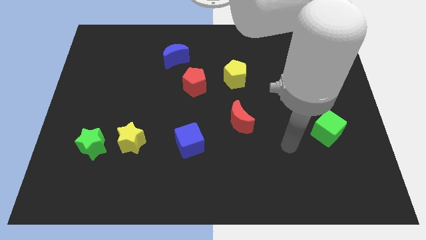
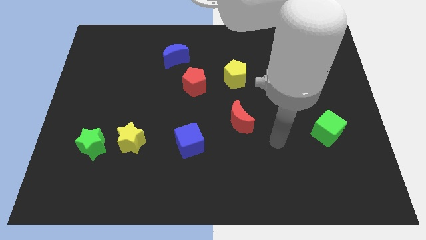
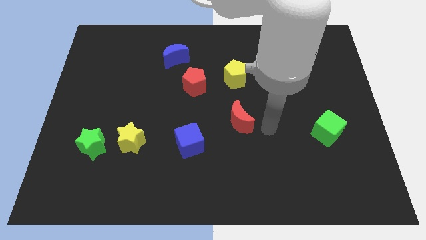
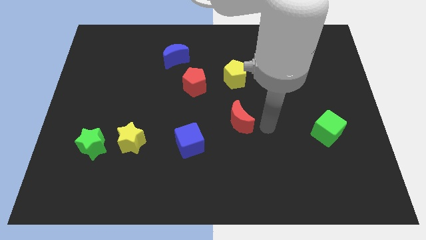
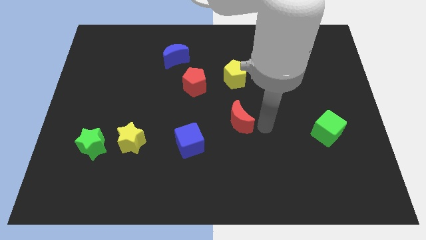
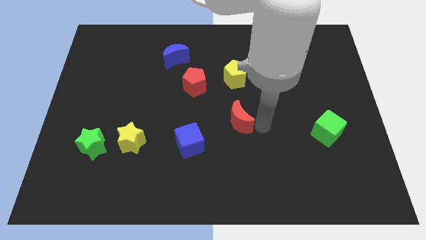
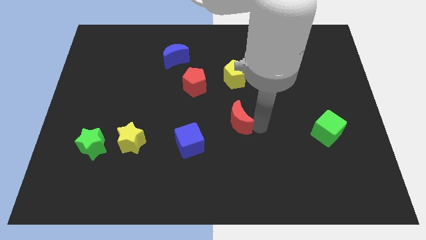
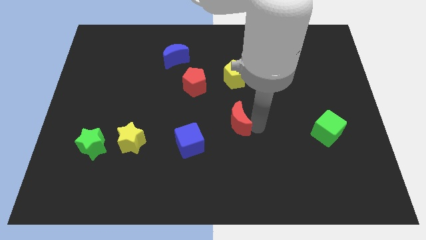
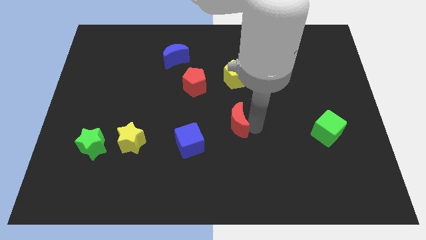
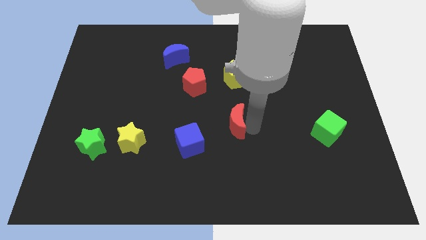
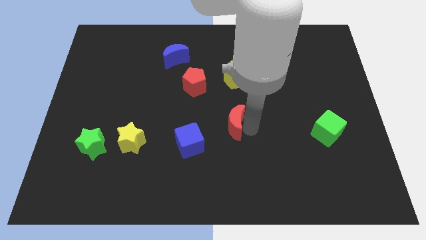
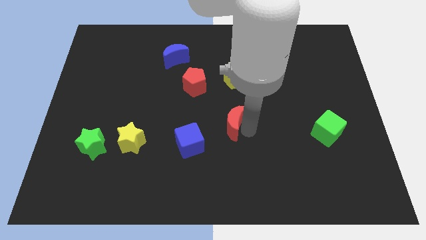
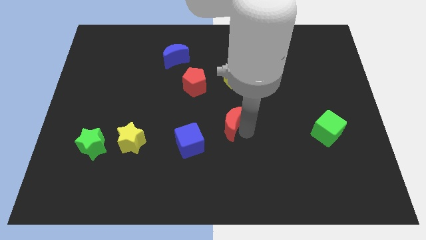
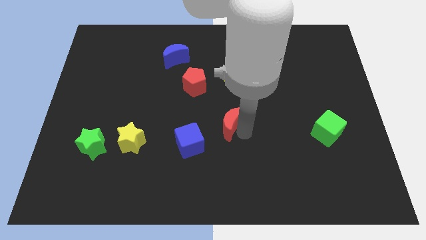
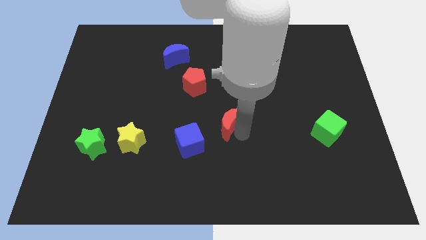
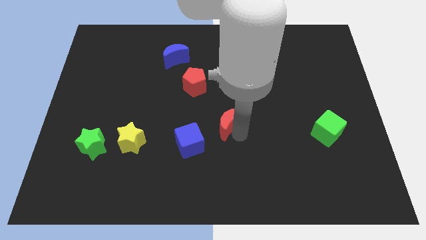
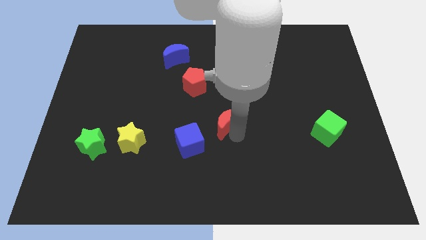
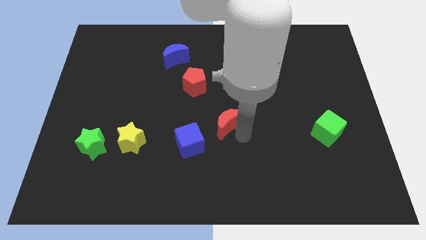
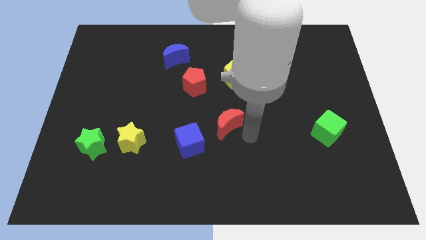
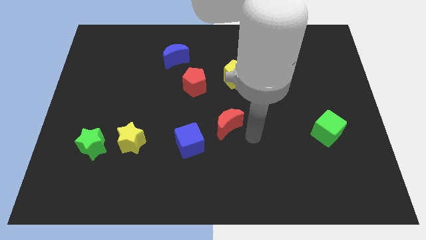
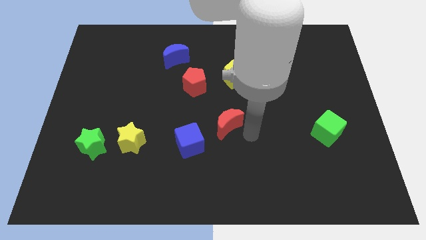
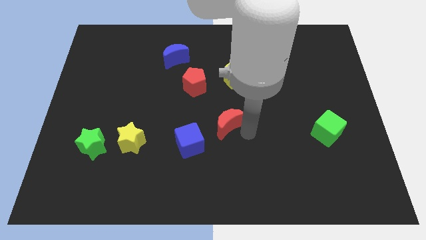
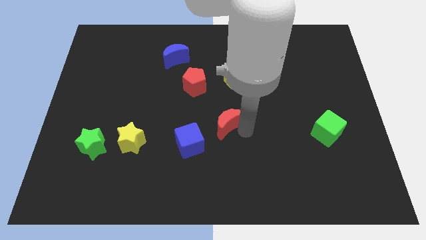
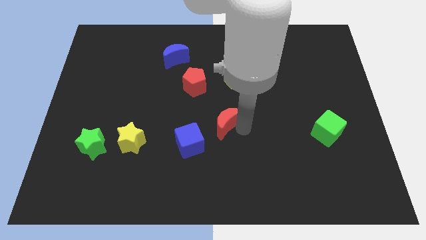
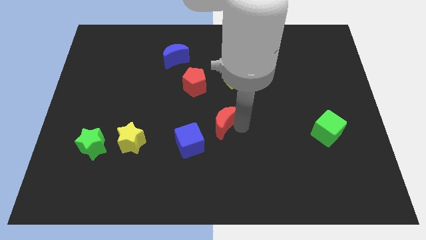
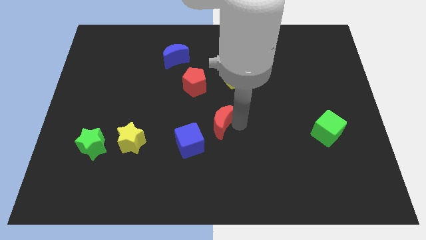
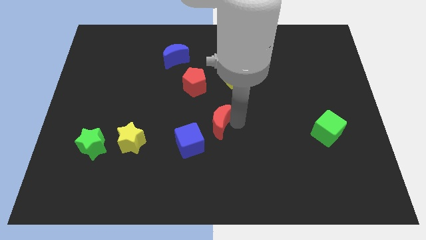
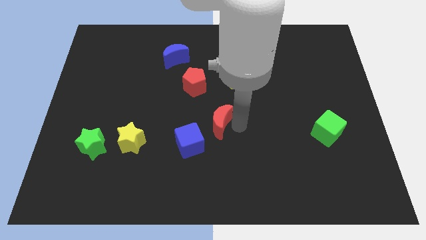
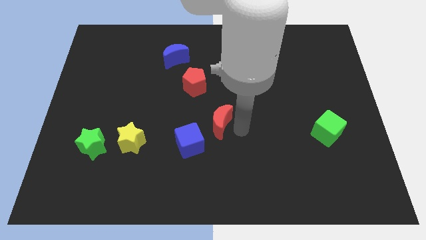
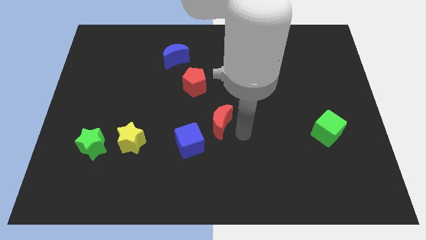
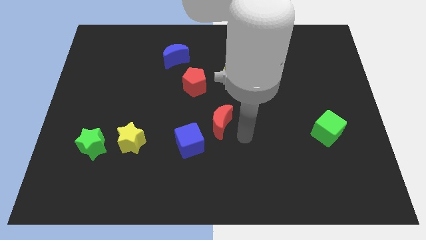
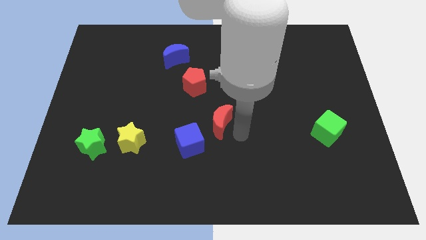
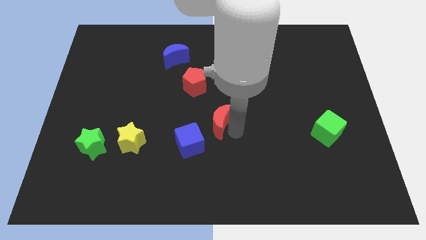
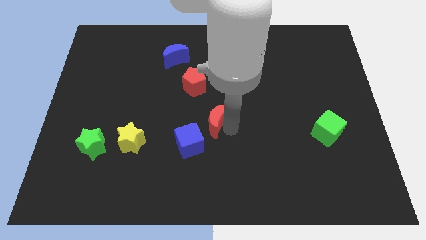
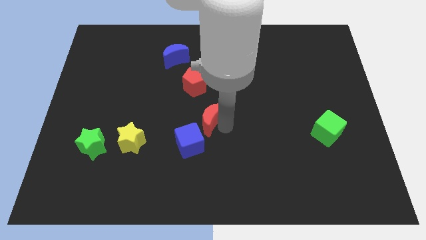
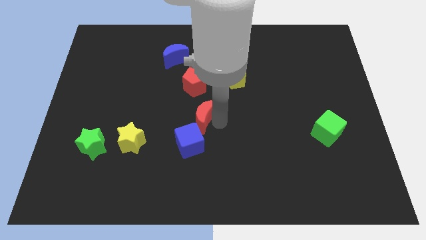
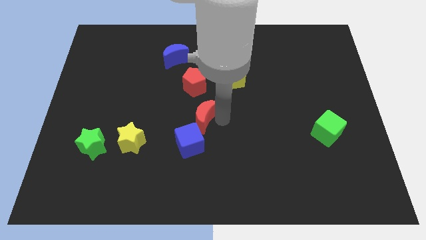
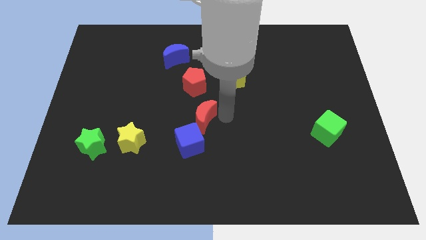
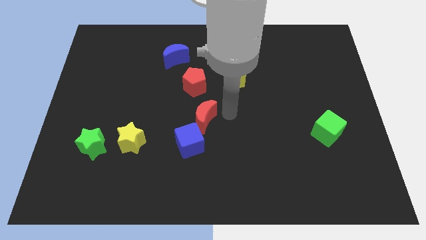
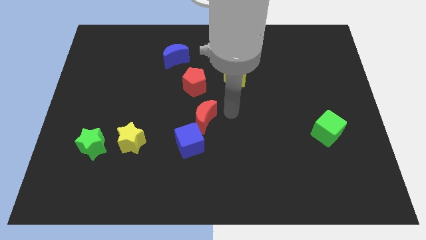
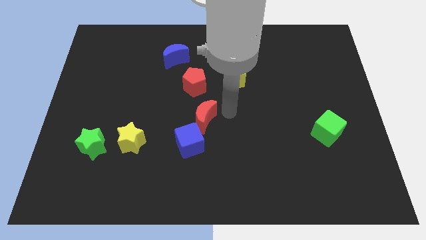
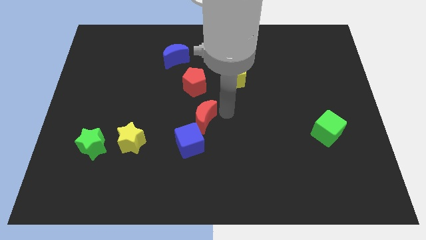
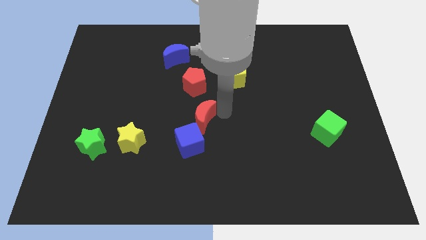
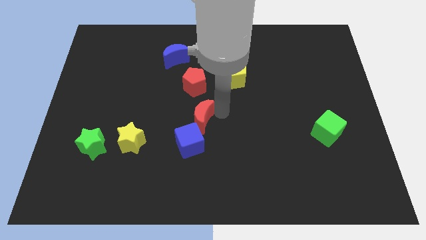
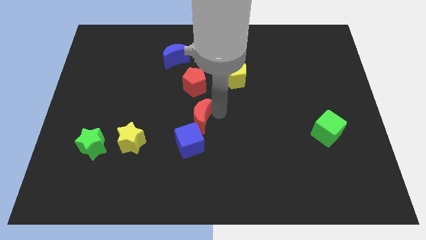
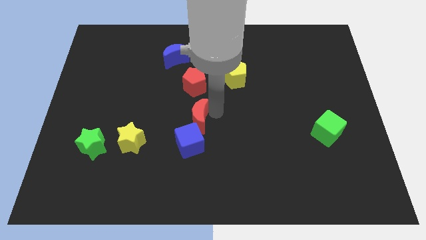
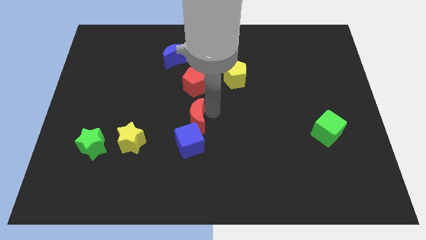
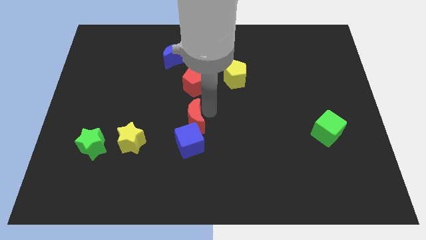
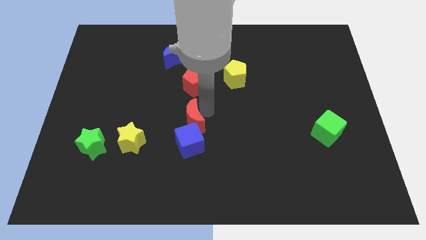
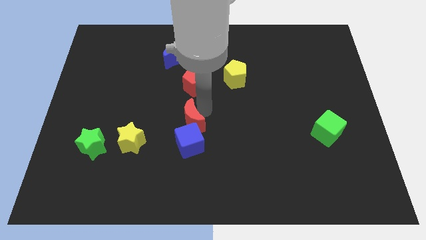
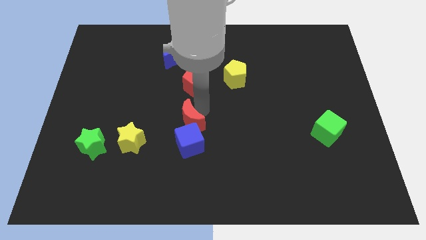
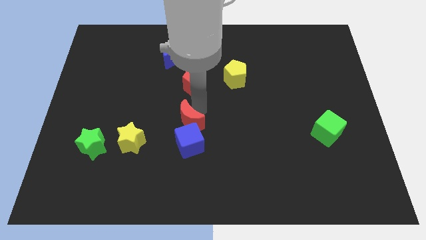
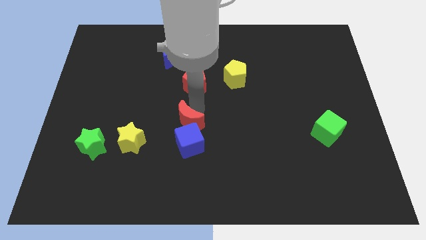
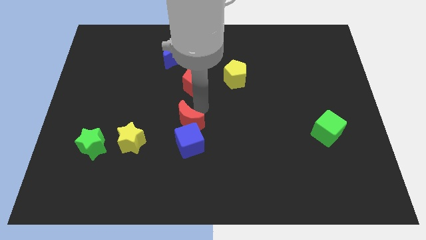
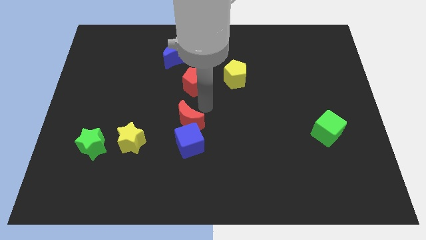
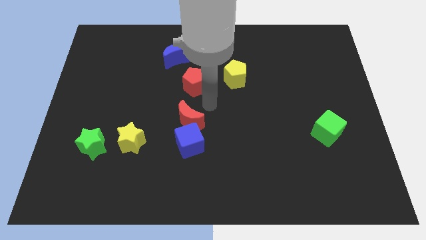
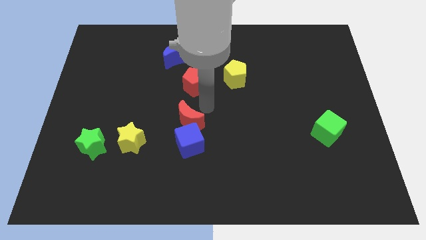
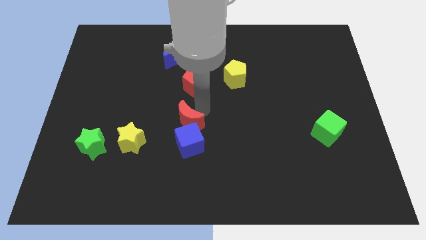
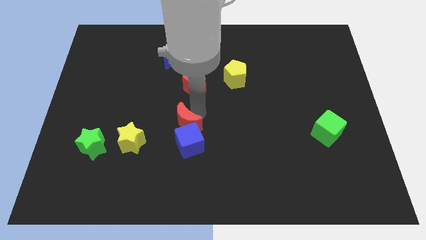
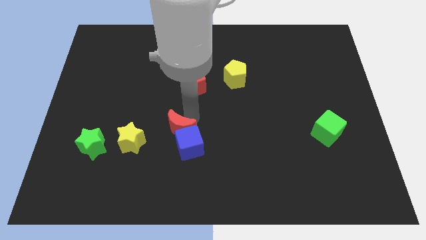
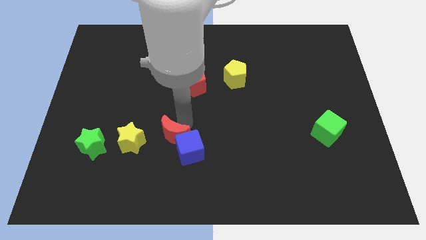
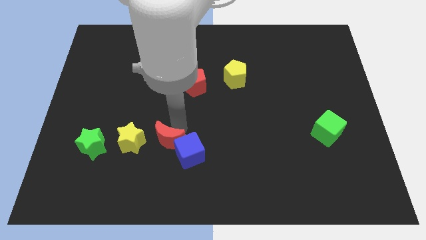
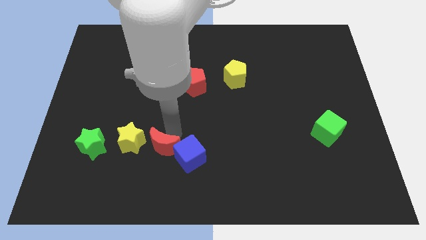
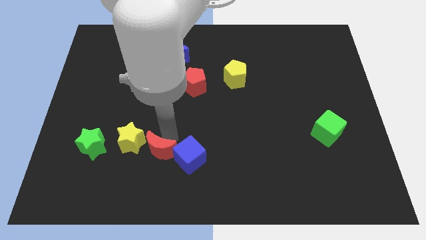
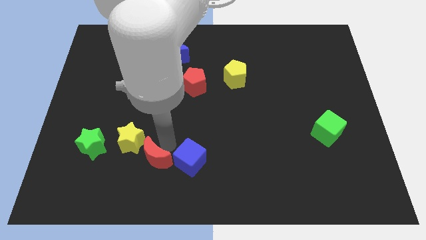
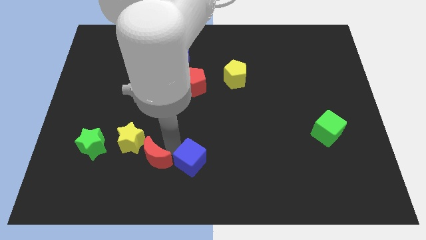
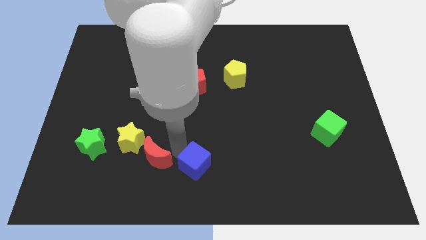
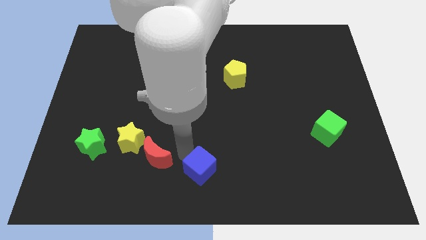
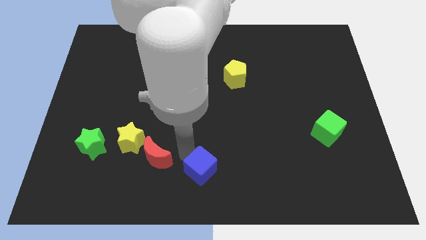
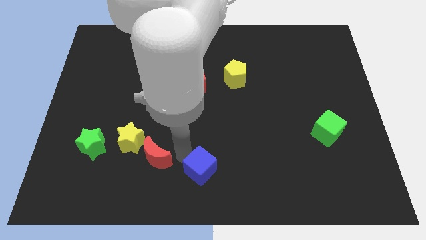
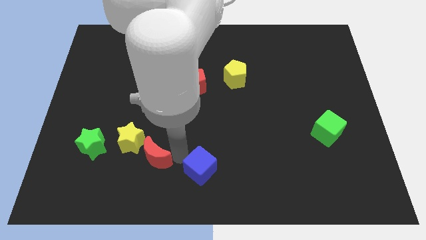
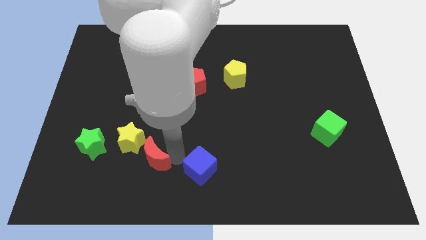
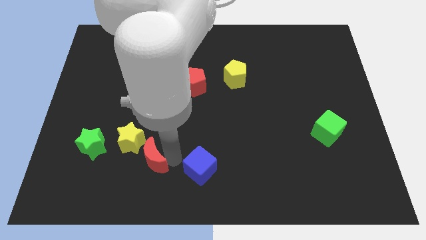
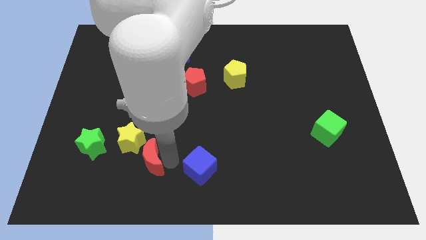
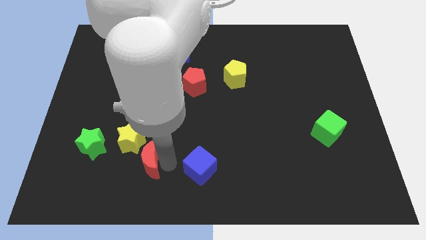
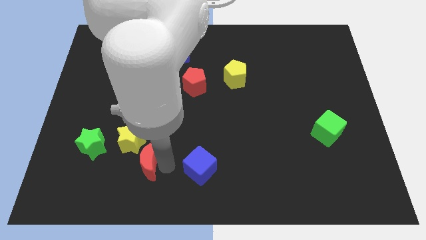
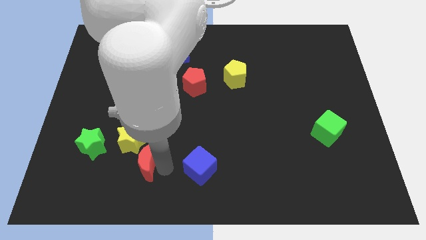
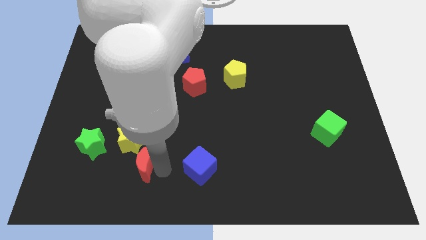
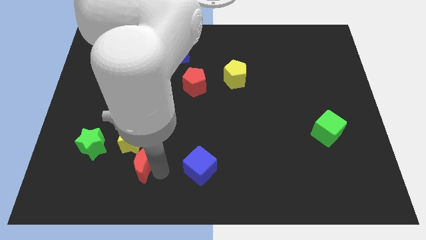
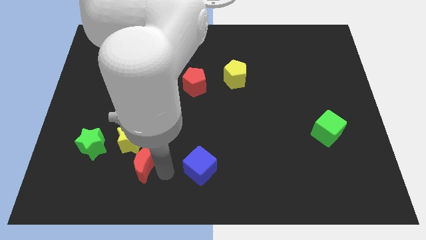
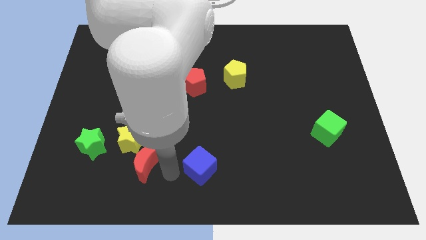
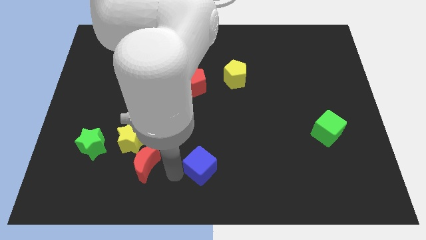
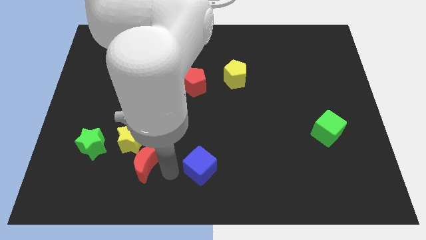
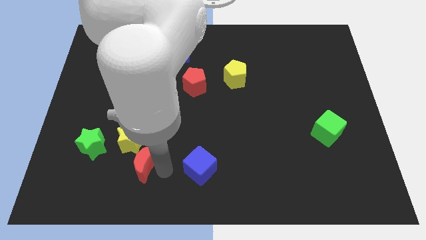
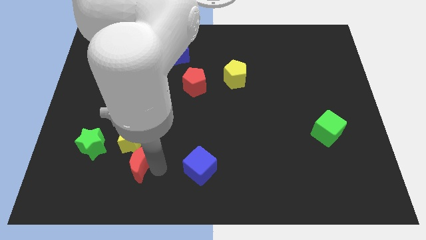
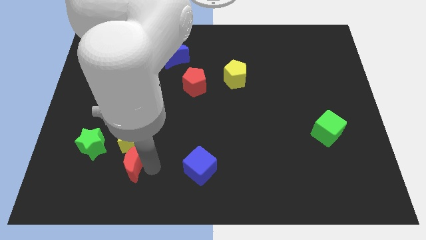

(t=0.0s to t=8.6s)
slide the red moon diagonally down and to the left of the yellow star
